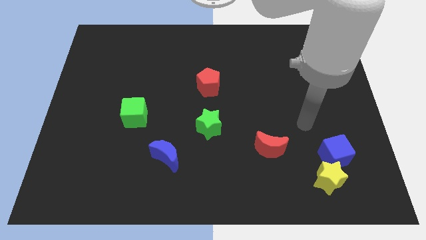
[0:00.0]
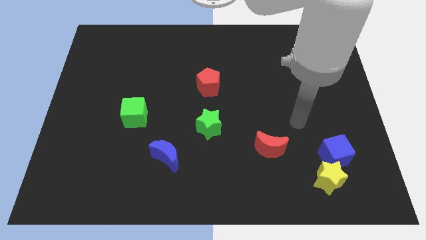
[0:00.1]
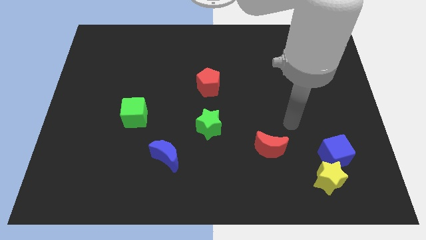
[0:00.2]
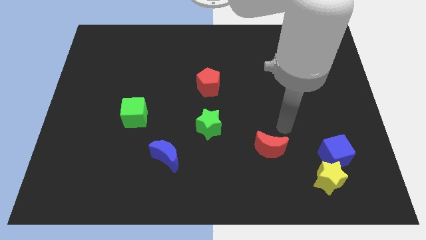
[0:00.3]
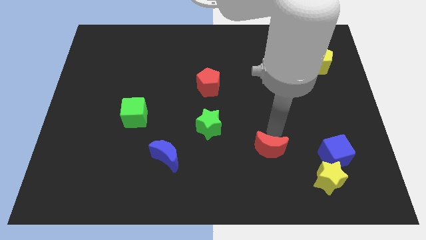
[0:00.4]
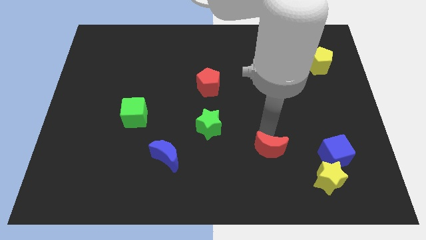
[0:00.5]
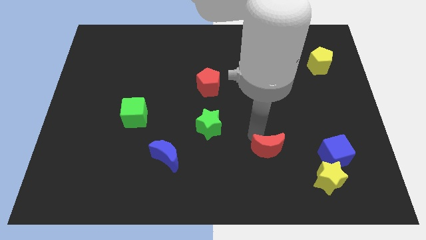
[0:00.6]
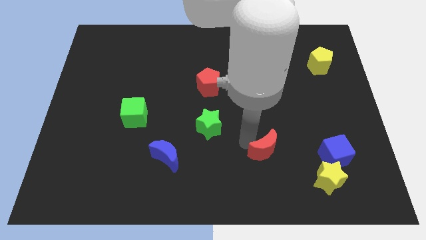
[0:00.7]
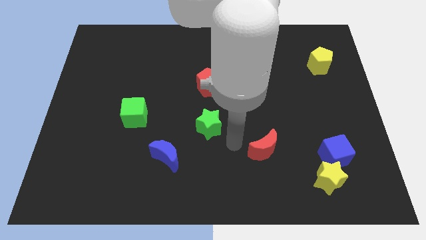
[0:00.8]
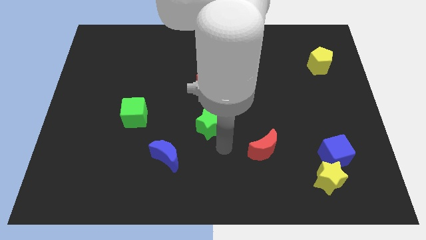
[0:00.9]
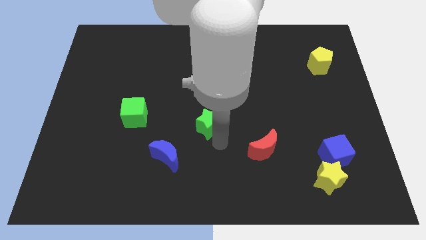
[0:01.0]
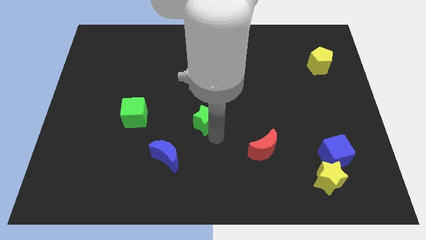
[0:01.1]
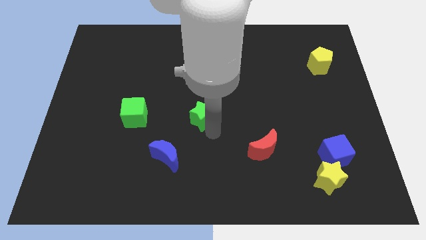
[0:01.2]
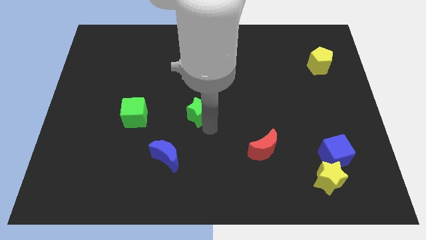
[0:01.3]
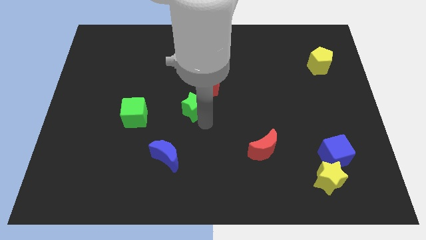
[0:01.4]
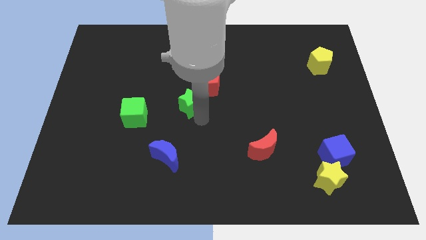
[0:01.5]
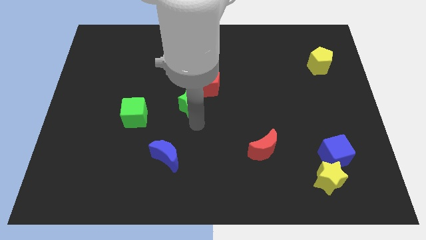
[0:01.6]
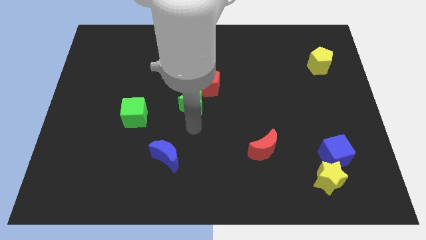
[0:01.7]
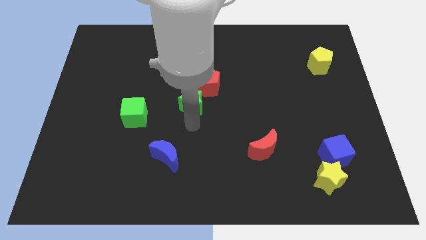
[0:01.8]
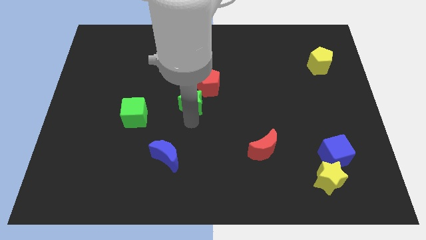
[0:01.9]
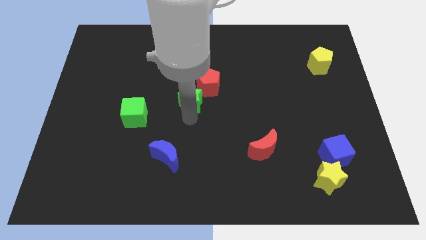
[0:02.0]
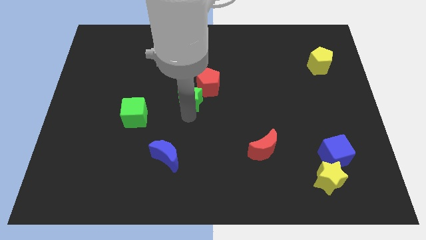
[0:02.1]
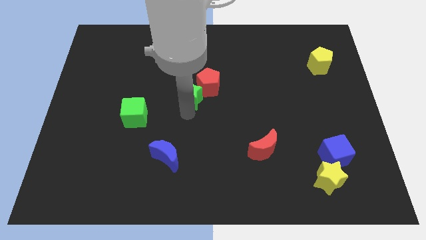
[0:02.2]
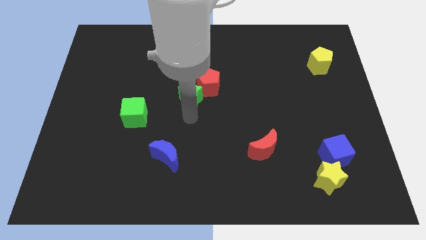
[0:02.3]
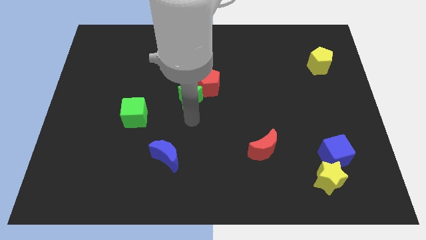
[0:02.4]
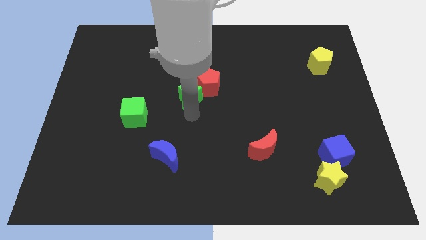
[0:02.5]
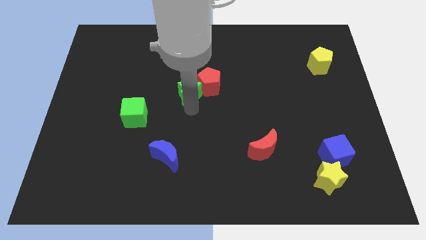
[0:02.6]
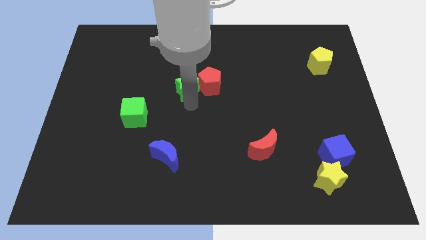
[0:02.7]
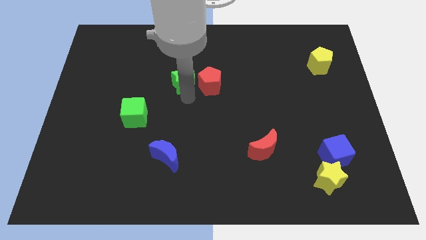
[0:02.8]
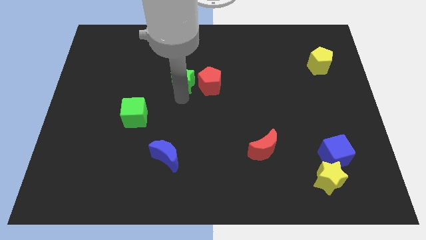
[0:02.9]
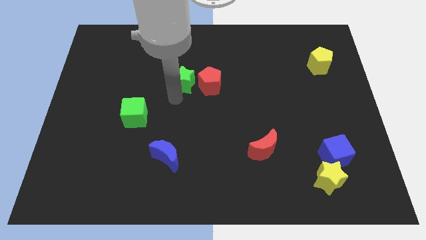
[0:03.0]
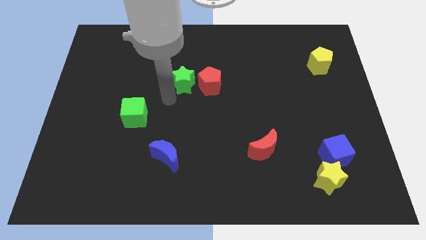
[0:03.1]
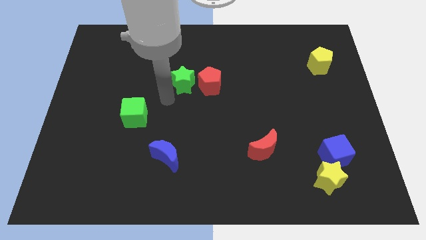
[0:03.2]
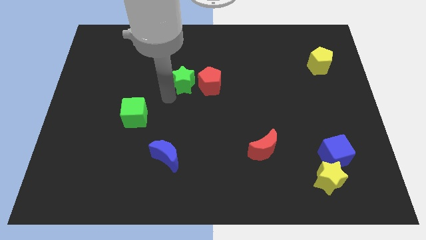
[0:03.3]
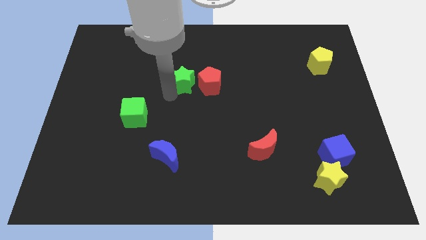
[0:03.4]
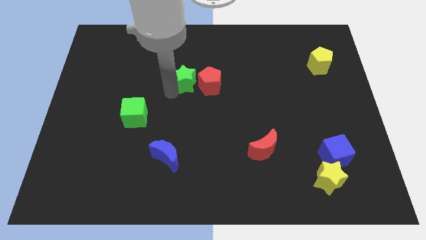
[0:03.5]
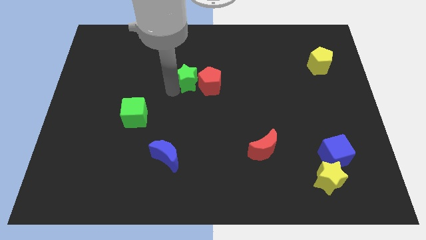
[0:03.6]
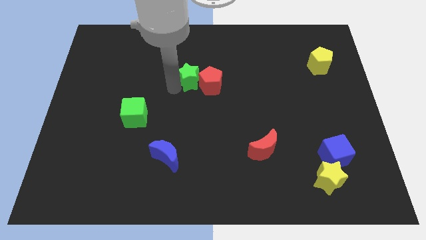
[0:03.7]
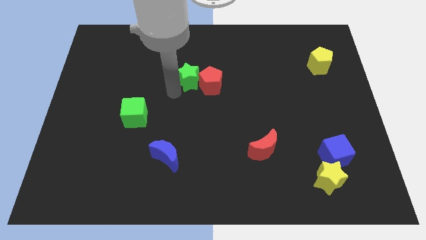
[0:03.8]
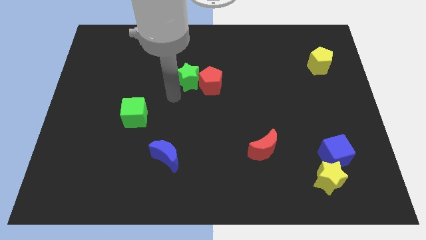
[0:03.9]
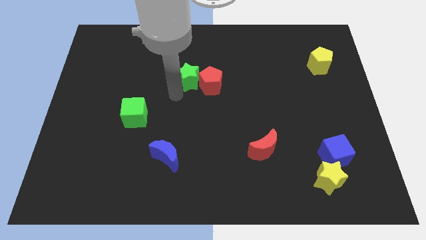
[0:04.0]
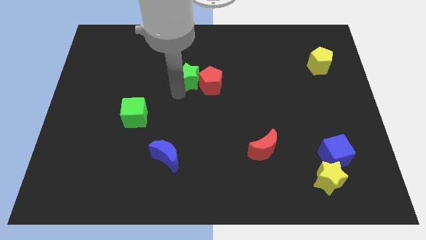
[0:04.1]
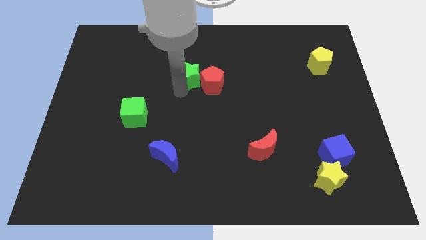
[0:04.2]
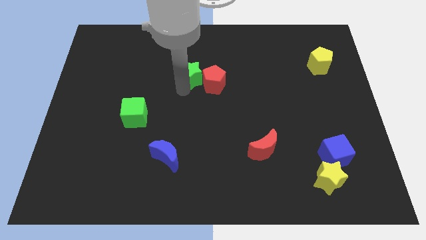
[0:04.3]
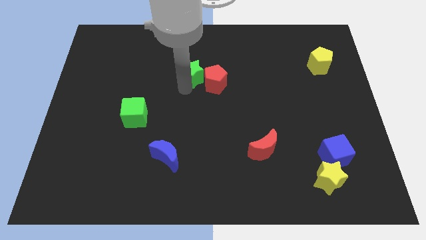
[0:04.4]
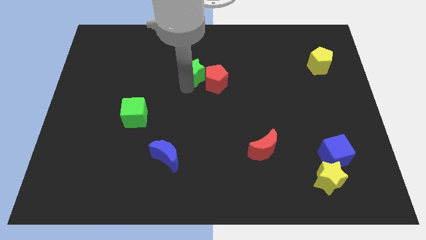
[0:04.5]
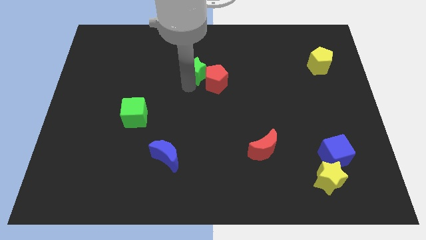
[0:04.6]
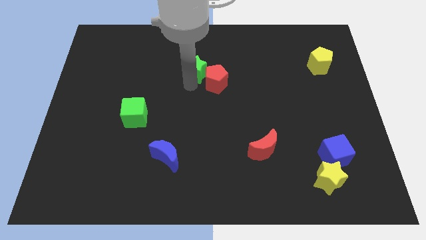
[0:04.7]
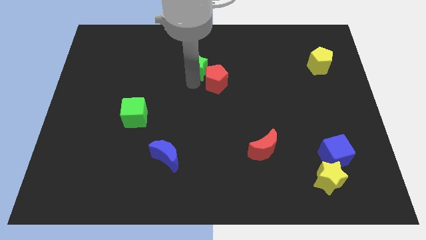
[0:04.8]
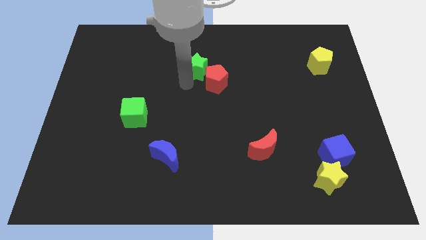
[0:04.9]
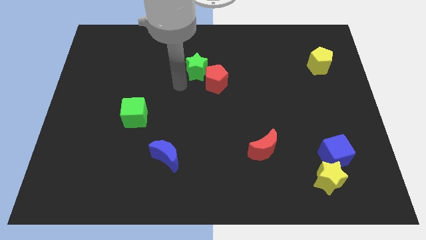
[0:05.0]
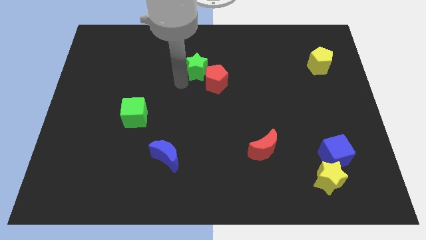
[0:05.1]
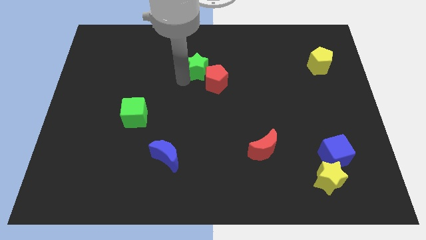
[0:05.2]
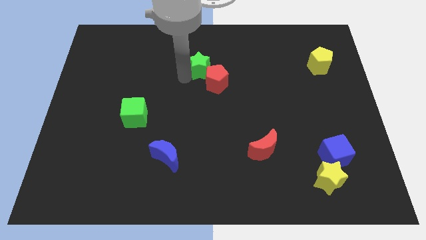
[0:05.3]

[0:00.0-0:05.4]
move the green star to the top side of the red pentagon

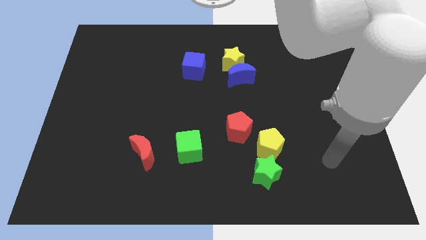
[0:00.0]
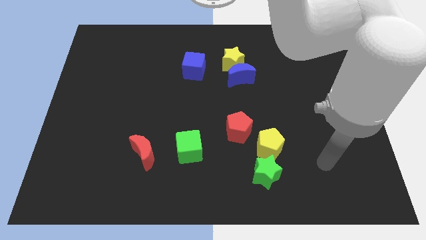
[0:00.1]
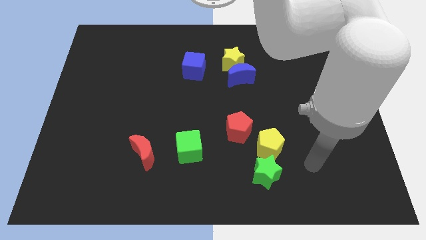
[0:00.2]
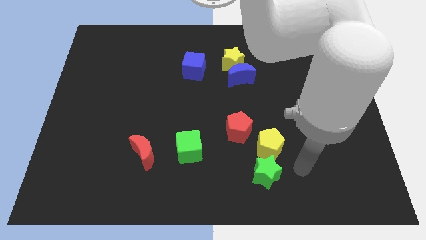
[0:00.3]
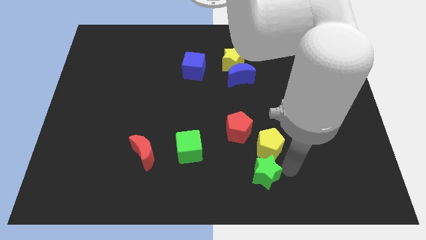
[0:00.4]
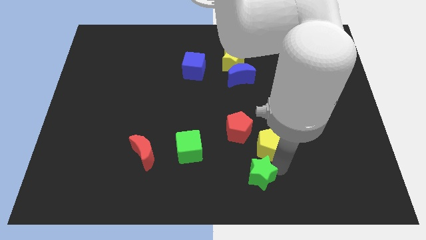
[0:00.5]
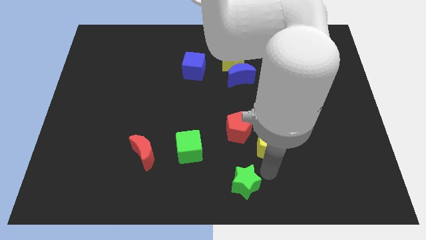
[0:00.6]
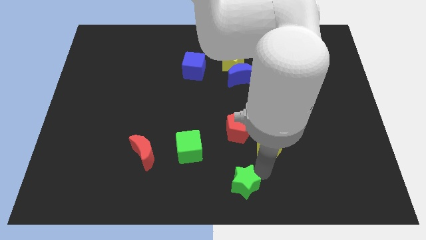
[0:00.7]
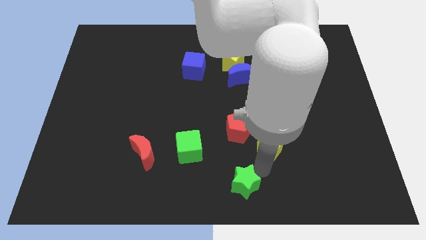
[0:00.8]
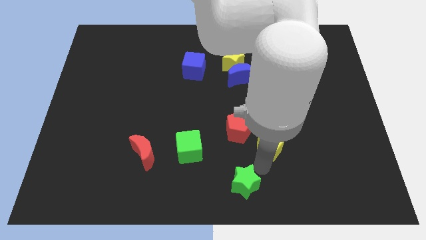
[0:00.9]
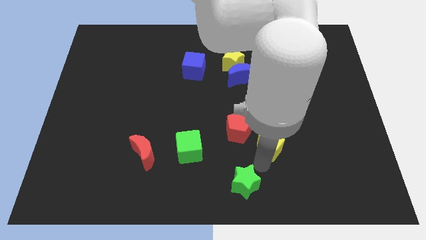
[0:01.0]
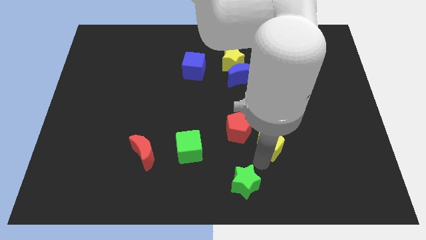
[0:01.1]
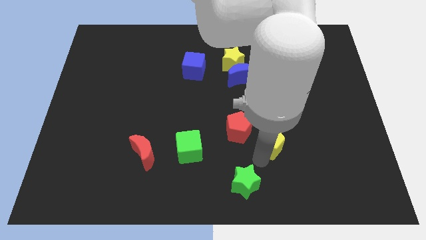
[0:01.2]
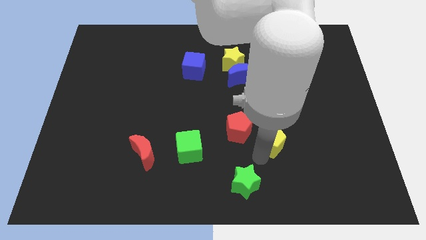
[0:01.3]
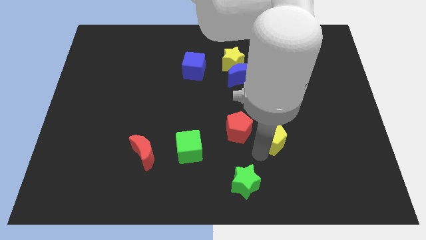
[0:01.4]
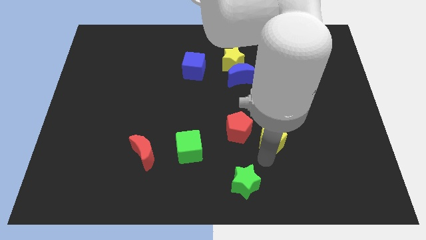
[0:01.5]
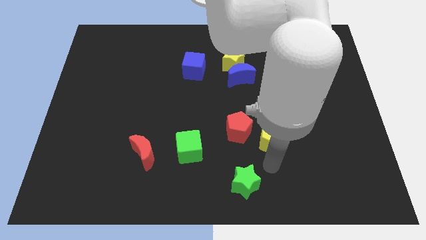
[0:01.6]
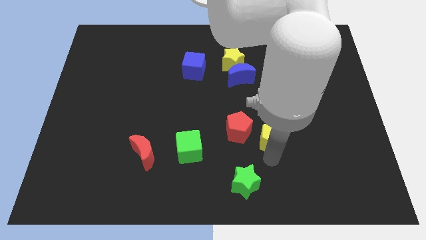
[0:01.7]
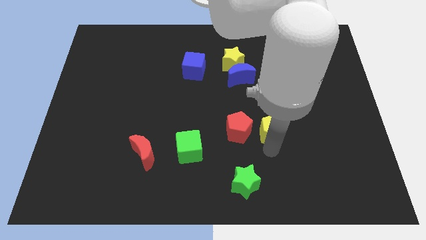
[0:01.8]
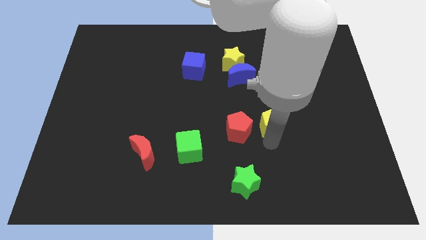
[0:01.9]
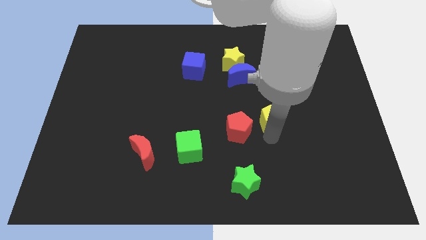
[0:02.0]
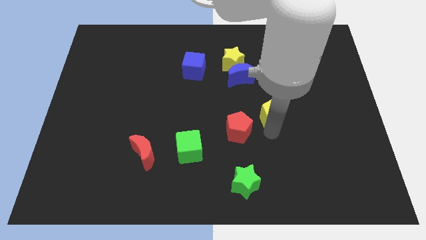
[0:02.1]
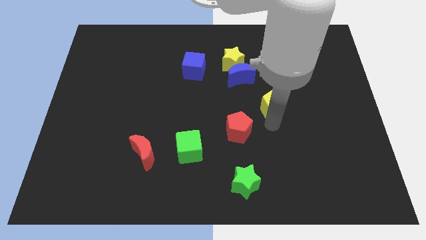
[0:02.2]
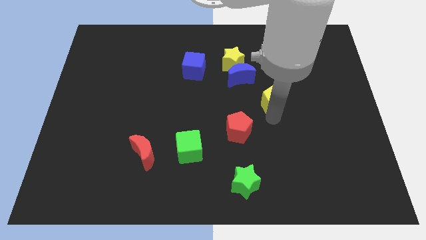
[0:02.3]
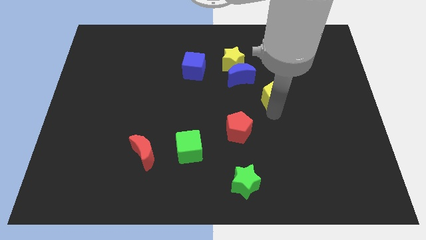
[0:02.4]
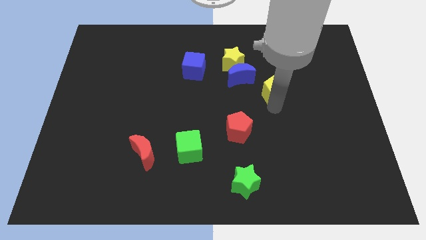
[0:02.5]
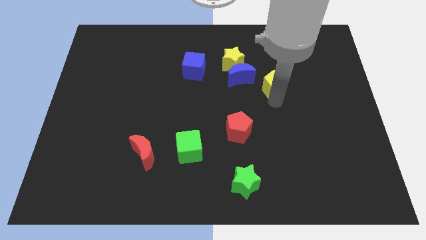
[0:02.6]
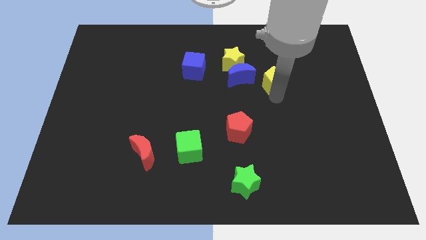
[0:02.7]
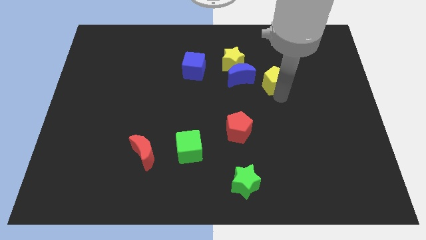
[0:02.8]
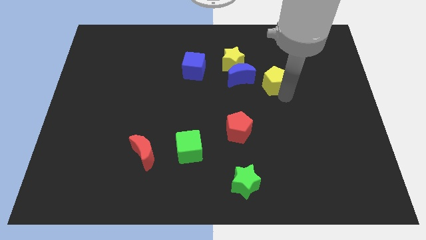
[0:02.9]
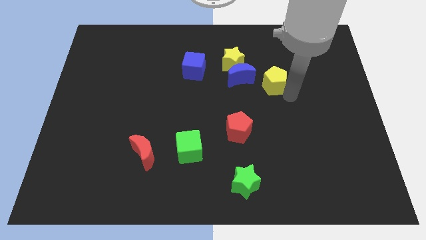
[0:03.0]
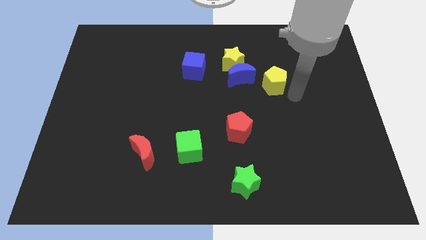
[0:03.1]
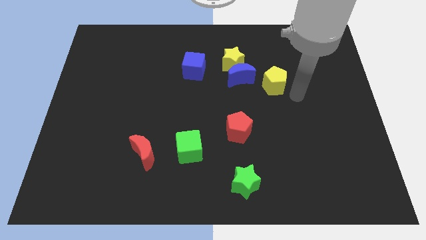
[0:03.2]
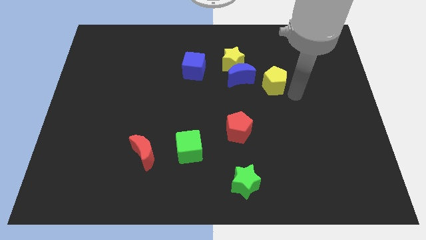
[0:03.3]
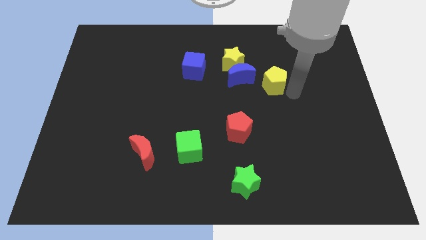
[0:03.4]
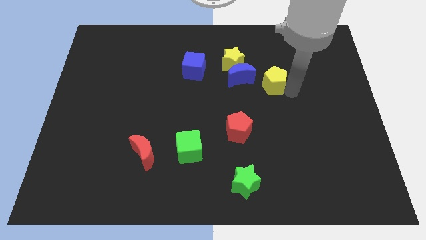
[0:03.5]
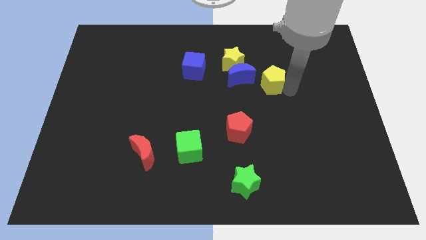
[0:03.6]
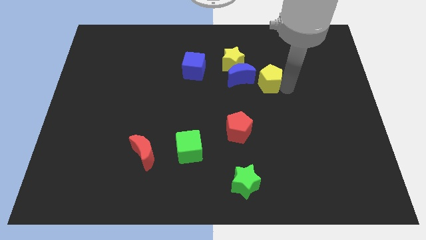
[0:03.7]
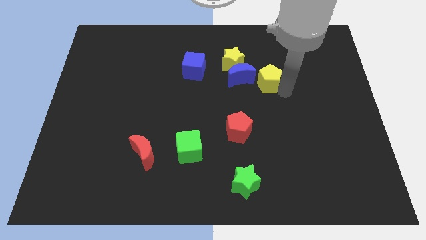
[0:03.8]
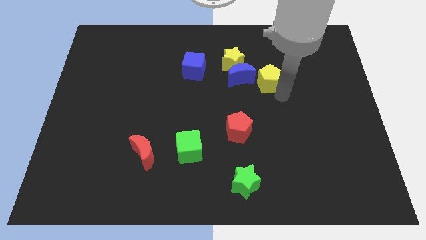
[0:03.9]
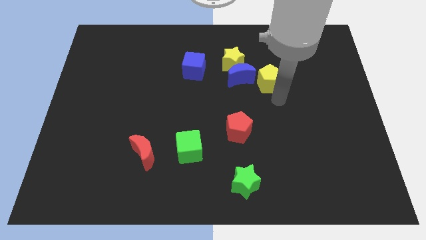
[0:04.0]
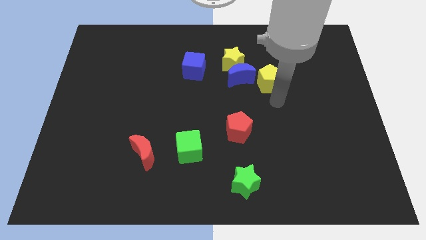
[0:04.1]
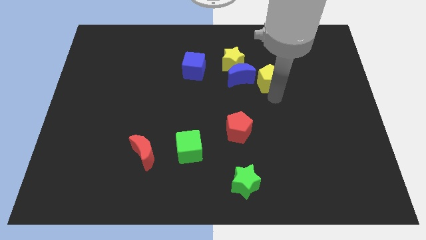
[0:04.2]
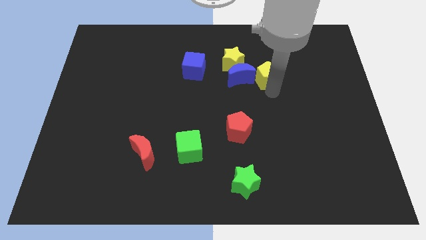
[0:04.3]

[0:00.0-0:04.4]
push the yellow pentagon to the top right of the blue moon
